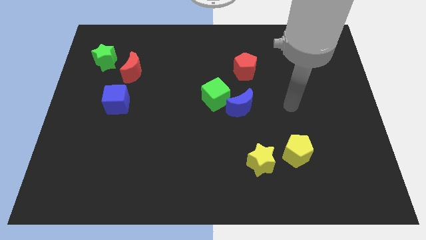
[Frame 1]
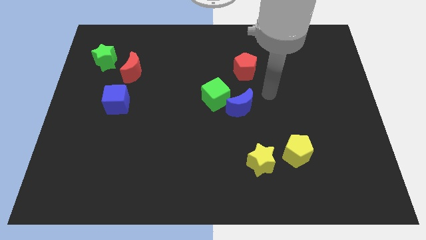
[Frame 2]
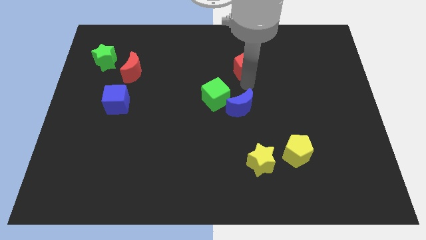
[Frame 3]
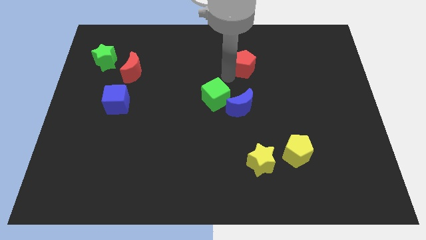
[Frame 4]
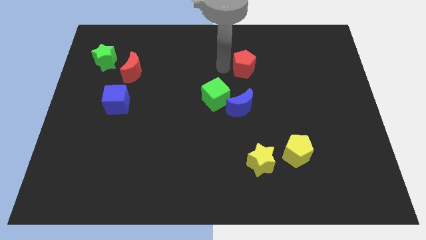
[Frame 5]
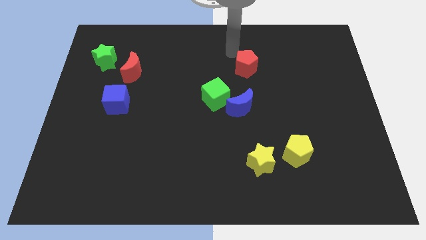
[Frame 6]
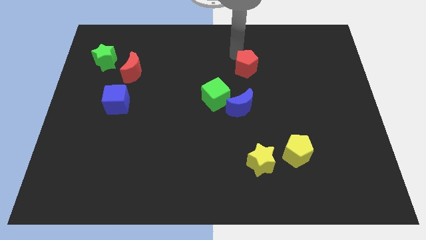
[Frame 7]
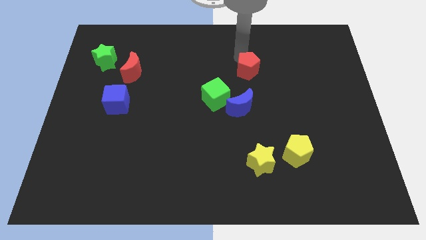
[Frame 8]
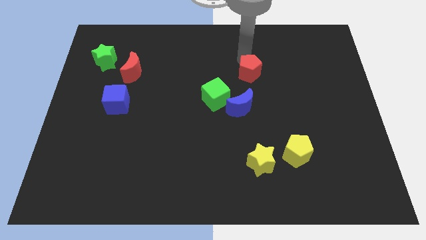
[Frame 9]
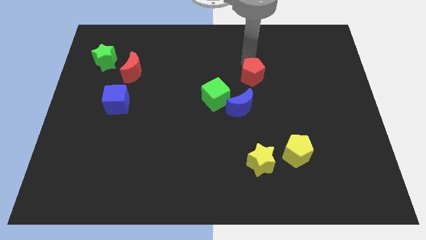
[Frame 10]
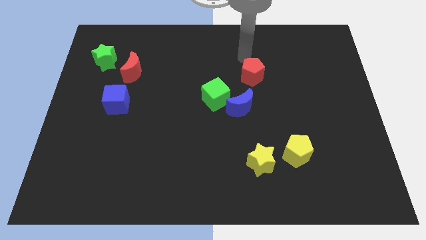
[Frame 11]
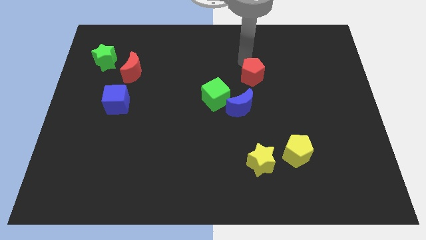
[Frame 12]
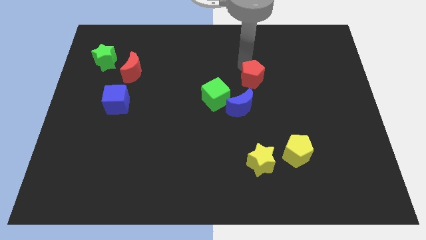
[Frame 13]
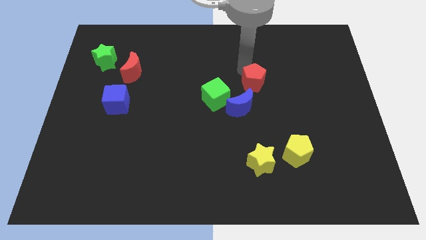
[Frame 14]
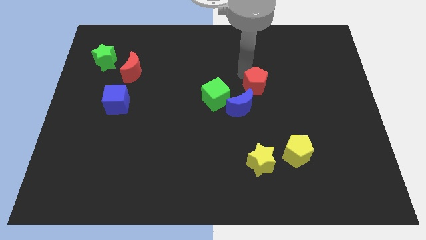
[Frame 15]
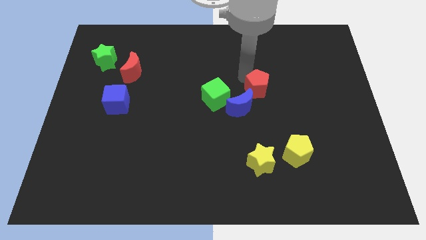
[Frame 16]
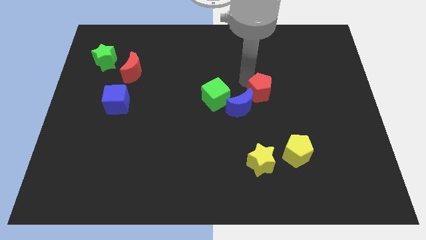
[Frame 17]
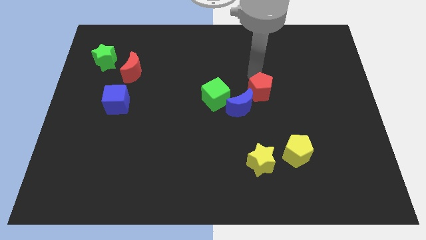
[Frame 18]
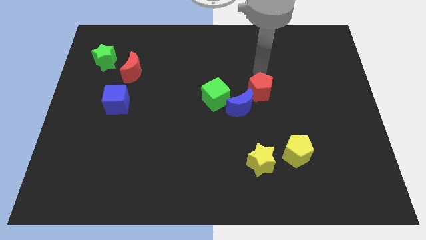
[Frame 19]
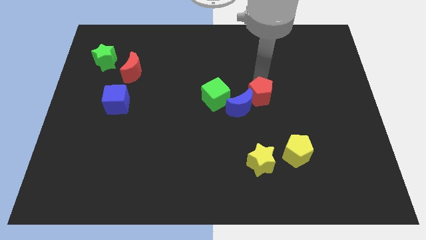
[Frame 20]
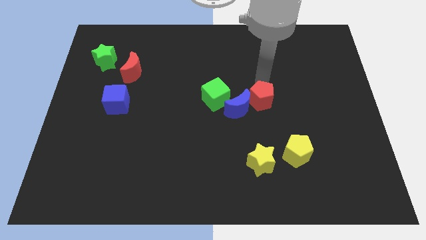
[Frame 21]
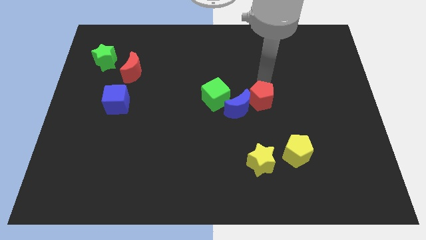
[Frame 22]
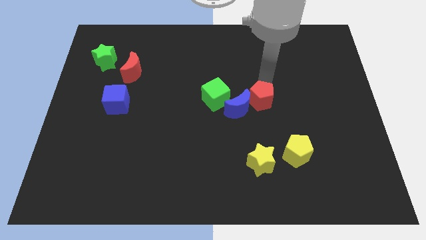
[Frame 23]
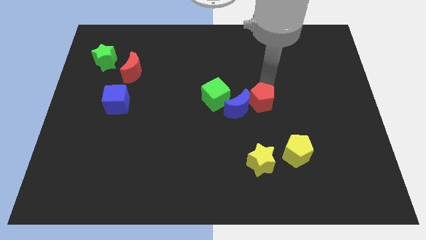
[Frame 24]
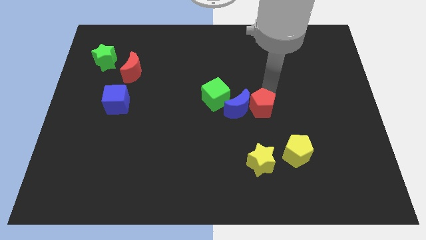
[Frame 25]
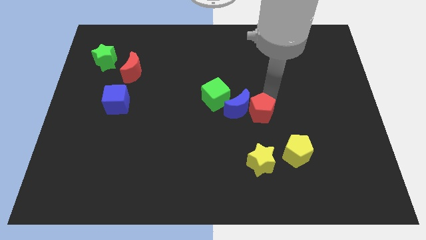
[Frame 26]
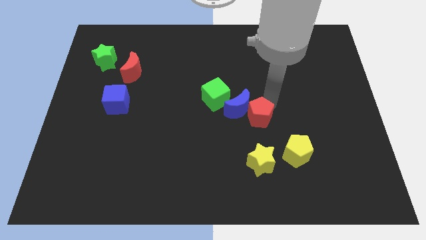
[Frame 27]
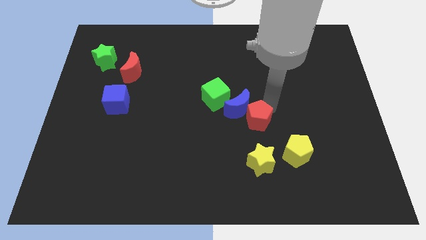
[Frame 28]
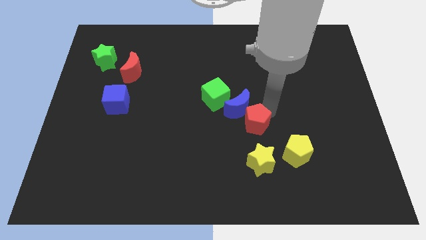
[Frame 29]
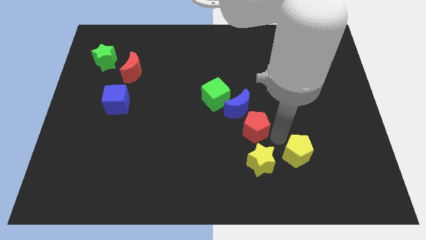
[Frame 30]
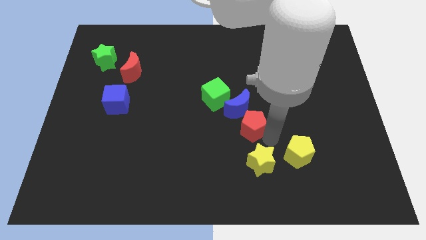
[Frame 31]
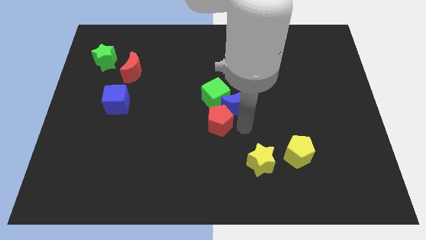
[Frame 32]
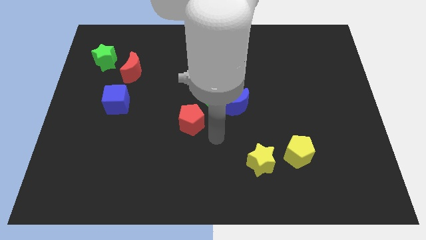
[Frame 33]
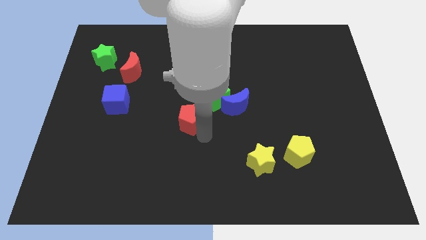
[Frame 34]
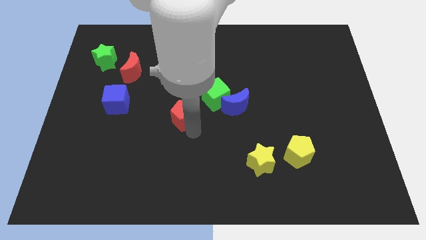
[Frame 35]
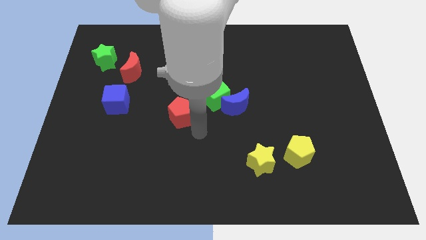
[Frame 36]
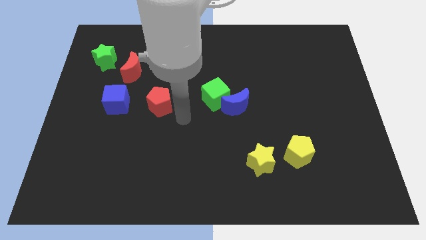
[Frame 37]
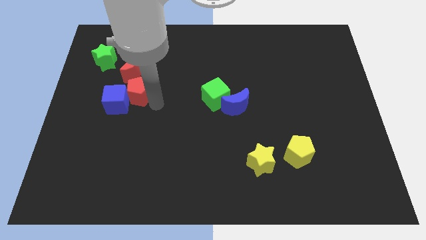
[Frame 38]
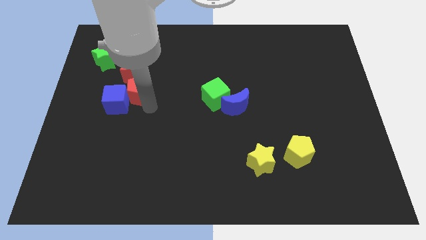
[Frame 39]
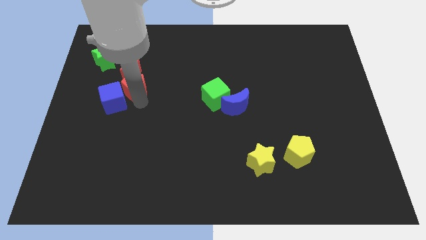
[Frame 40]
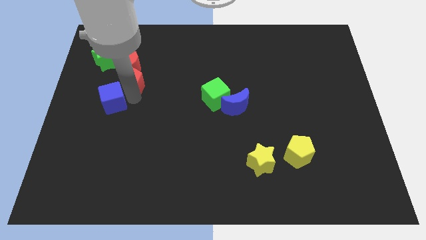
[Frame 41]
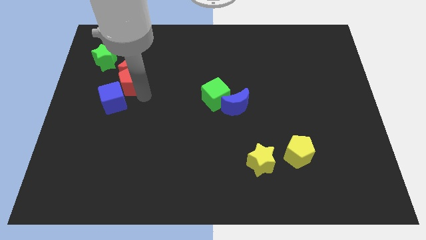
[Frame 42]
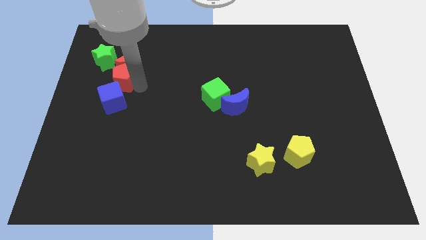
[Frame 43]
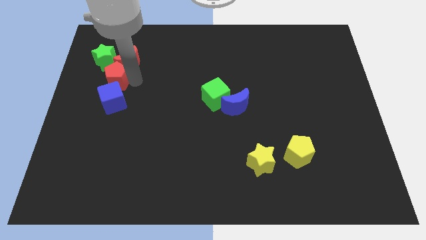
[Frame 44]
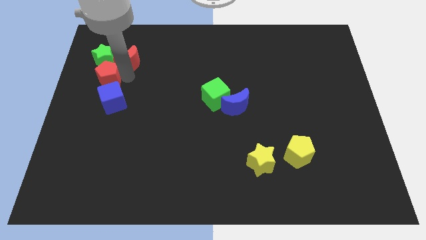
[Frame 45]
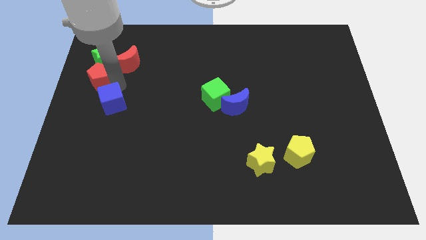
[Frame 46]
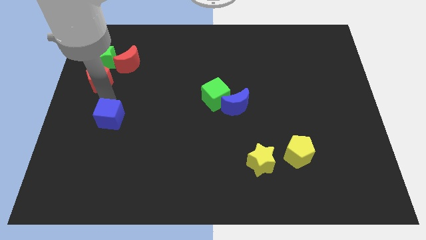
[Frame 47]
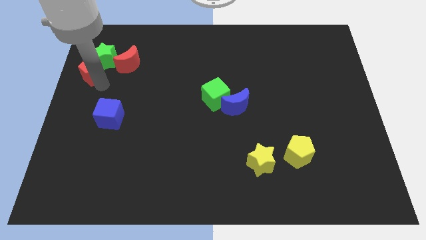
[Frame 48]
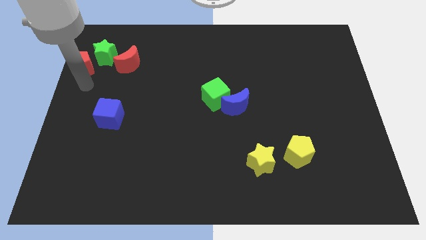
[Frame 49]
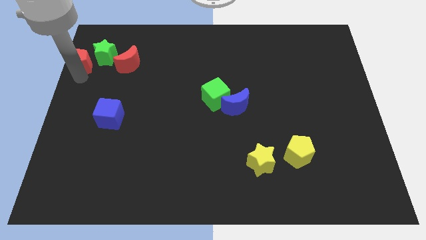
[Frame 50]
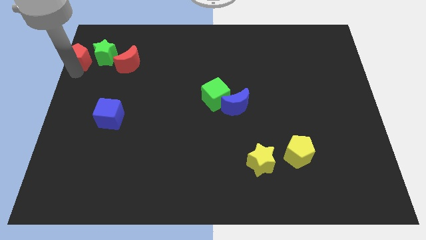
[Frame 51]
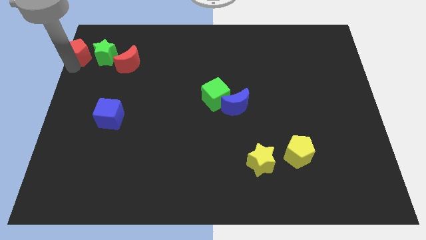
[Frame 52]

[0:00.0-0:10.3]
push the red pentagon to the top left corner

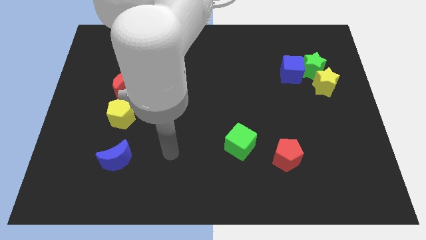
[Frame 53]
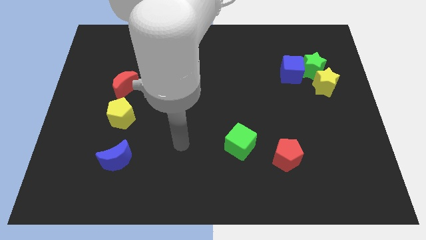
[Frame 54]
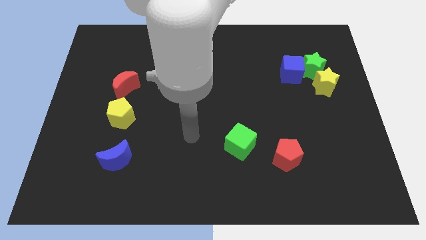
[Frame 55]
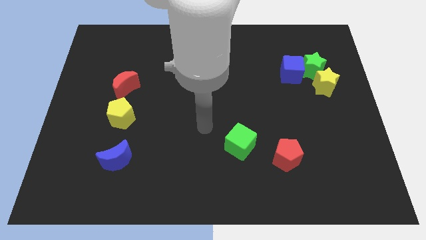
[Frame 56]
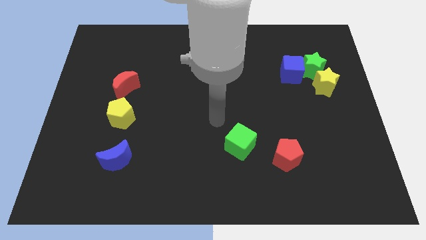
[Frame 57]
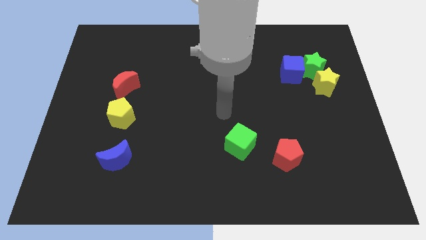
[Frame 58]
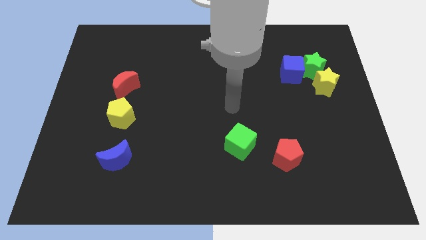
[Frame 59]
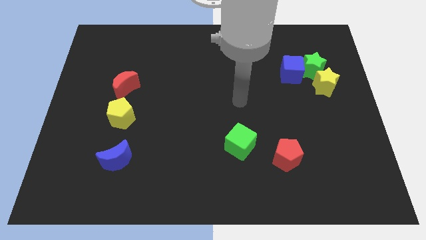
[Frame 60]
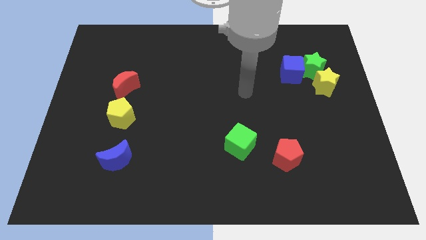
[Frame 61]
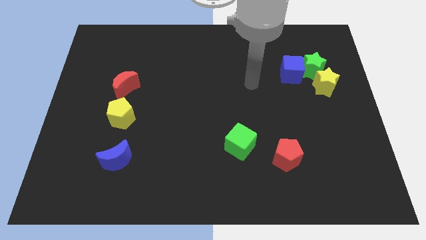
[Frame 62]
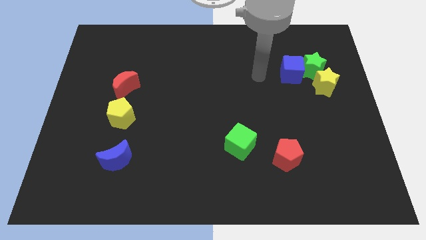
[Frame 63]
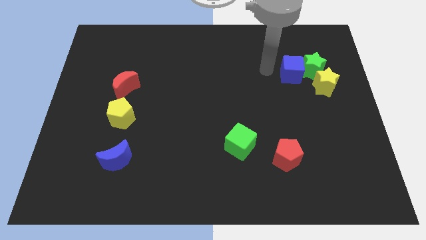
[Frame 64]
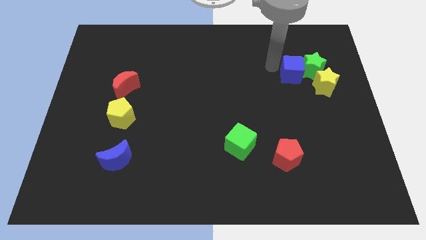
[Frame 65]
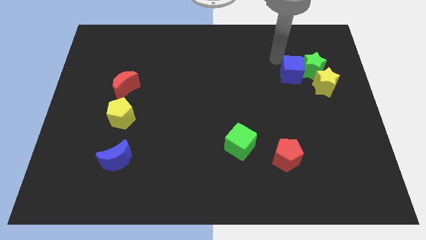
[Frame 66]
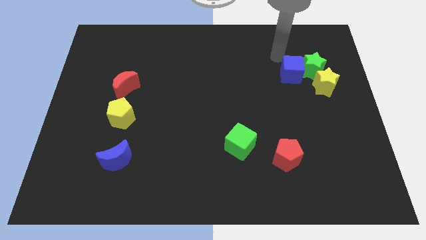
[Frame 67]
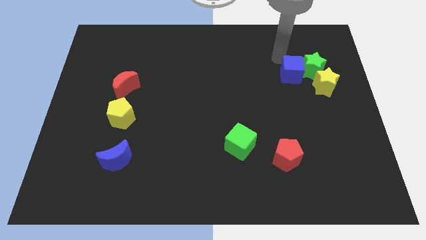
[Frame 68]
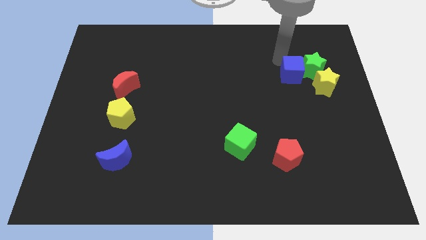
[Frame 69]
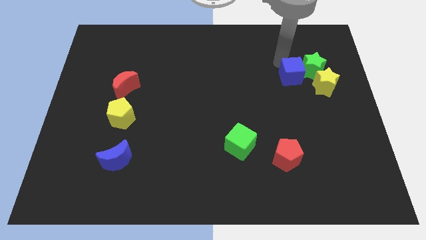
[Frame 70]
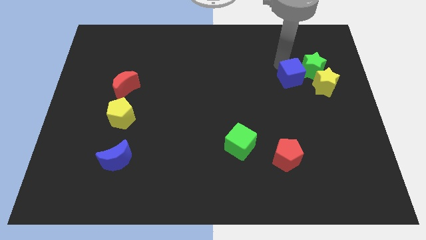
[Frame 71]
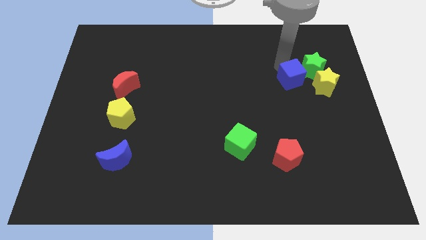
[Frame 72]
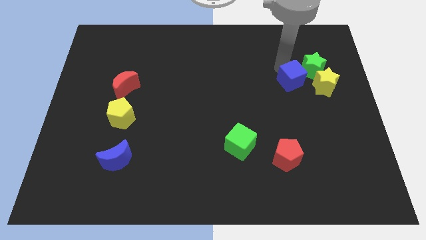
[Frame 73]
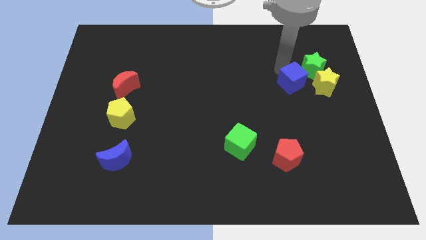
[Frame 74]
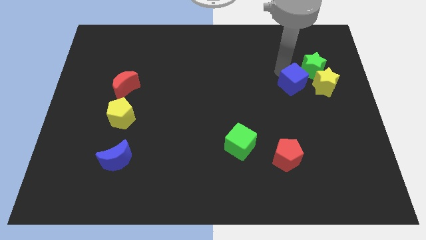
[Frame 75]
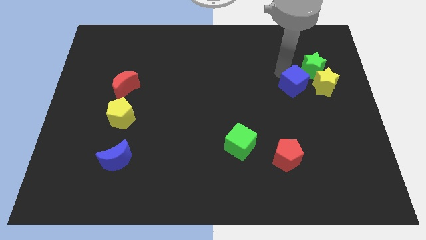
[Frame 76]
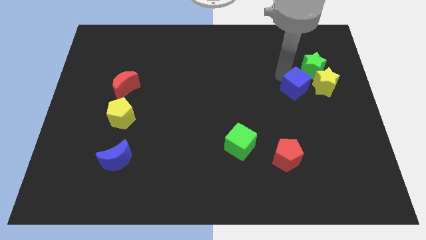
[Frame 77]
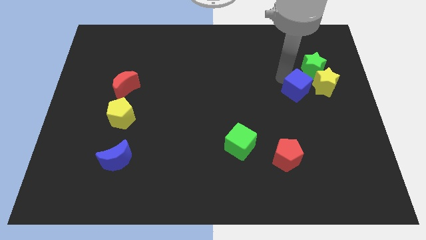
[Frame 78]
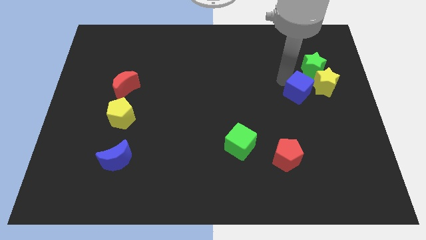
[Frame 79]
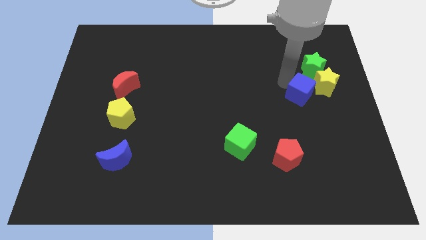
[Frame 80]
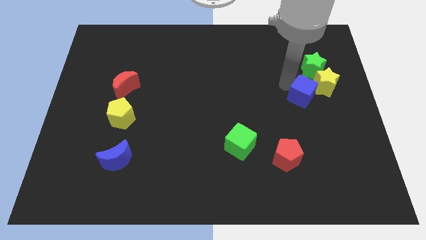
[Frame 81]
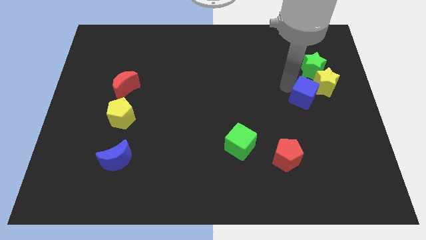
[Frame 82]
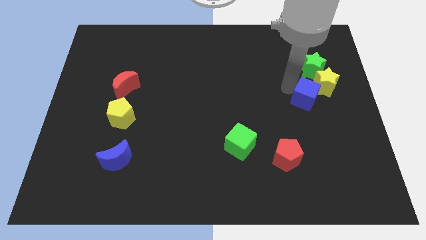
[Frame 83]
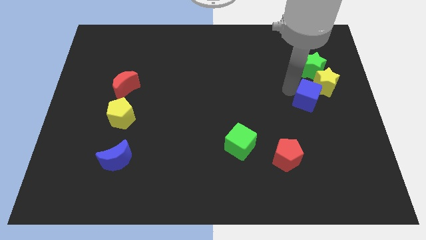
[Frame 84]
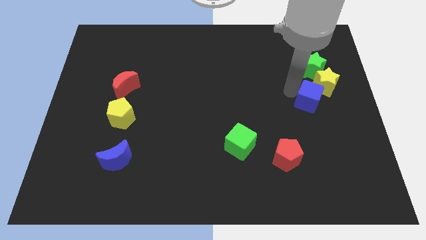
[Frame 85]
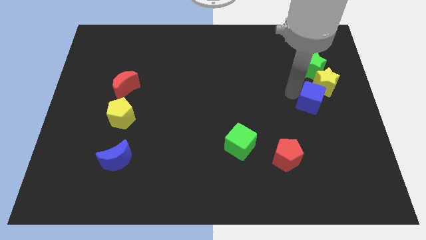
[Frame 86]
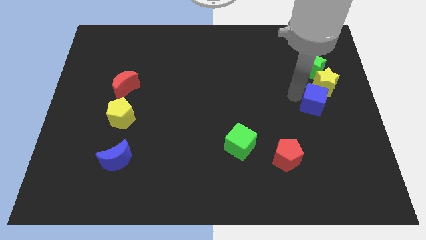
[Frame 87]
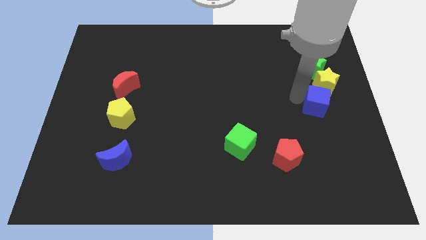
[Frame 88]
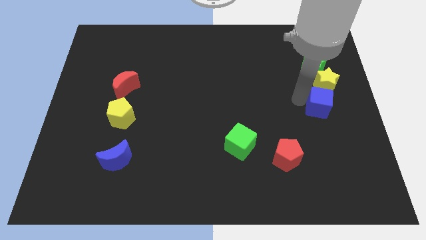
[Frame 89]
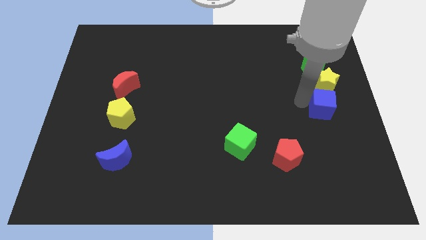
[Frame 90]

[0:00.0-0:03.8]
put the blue cube to the center right
